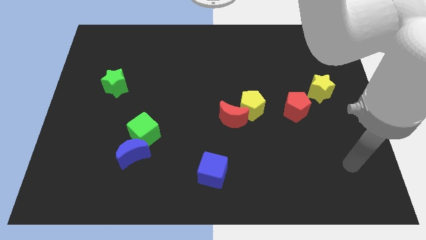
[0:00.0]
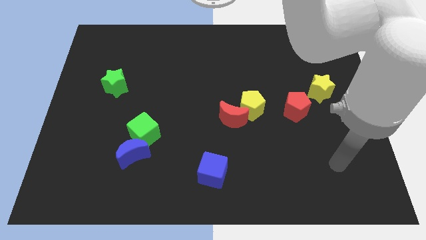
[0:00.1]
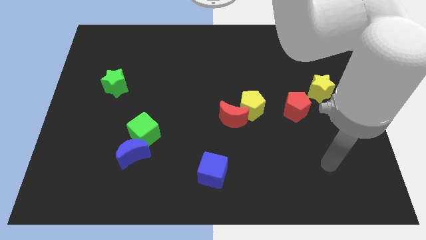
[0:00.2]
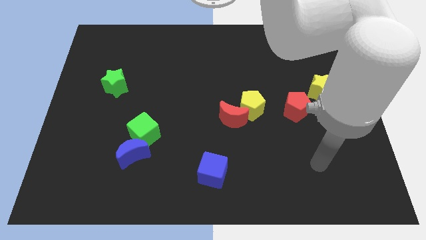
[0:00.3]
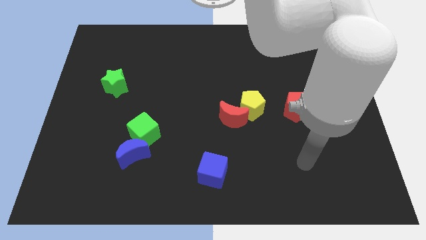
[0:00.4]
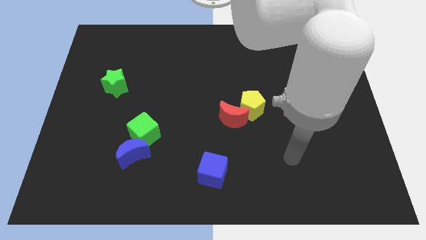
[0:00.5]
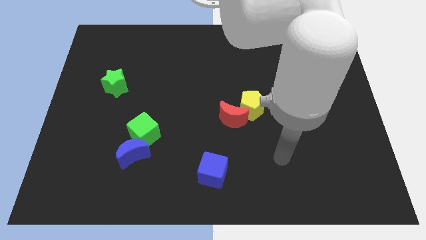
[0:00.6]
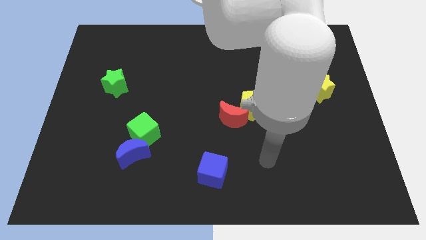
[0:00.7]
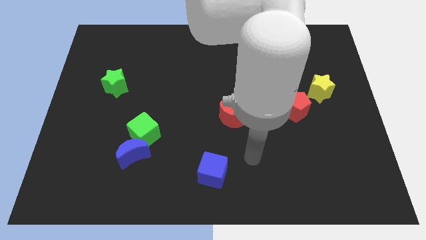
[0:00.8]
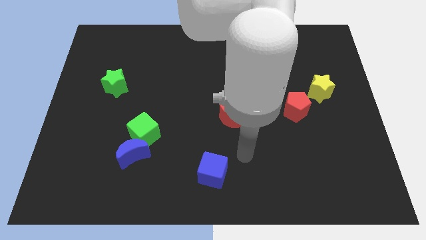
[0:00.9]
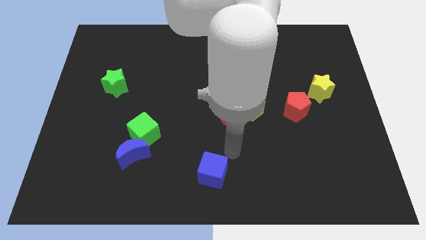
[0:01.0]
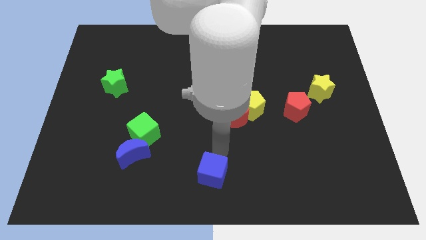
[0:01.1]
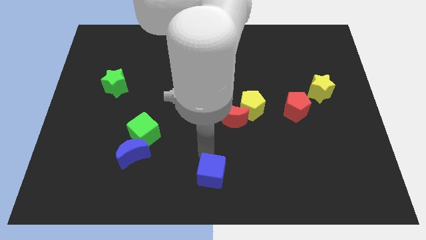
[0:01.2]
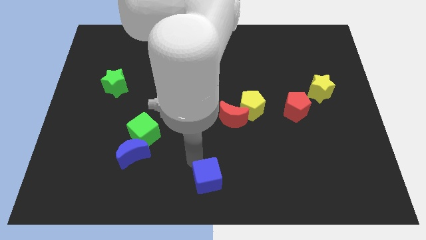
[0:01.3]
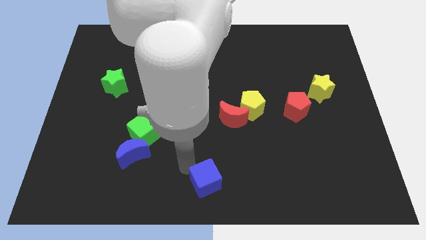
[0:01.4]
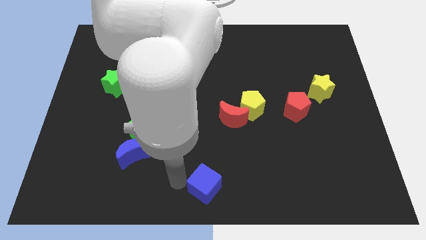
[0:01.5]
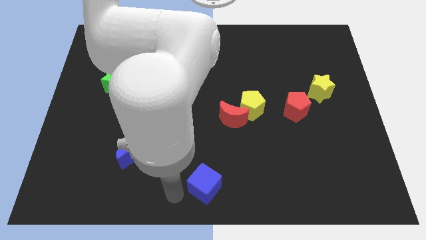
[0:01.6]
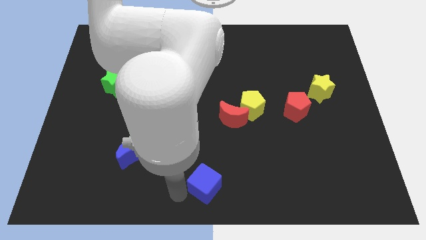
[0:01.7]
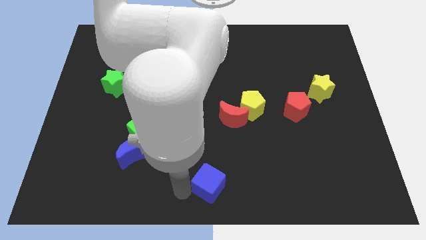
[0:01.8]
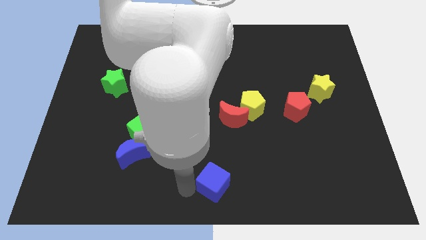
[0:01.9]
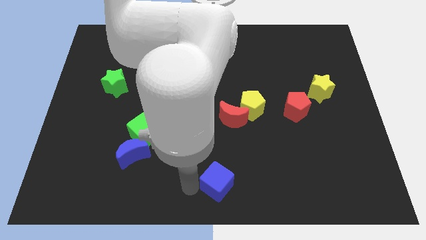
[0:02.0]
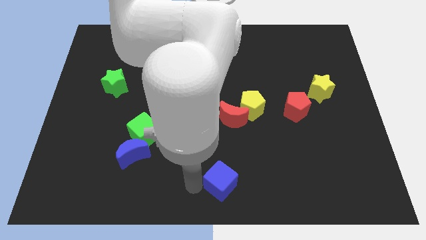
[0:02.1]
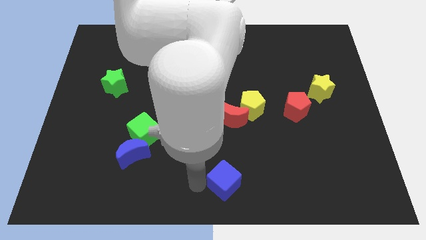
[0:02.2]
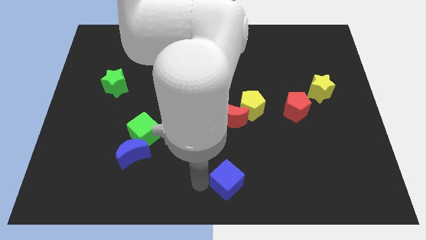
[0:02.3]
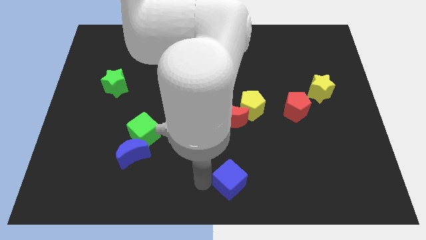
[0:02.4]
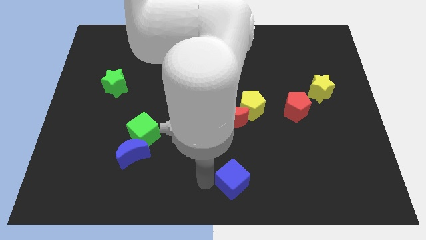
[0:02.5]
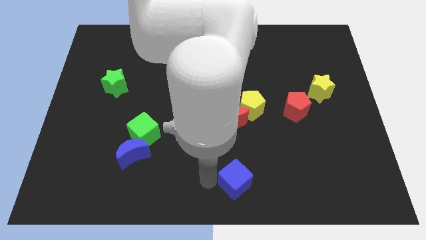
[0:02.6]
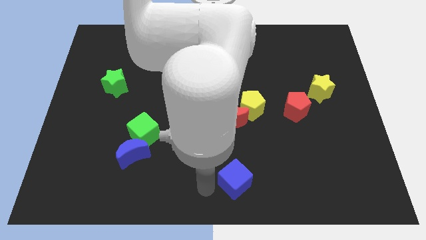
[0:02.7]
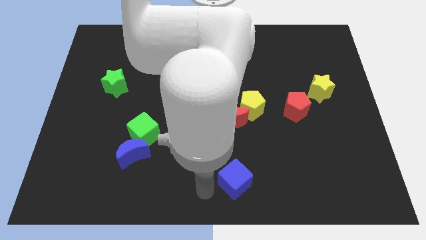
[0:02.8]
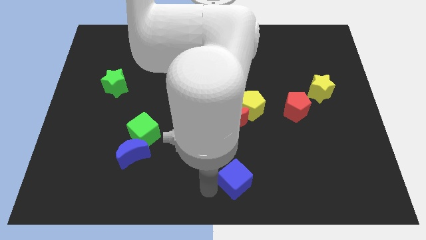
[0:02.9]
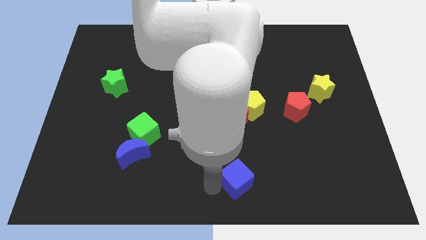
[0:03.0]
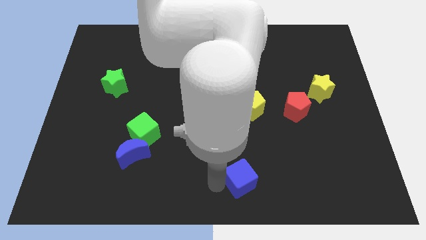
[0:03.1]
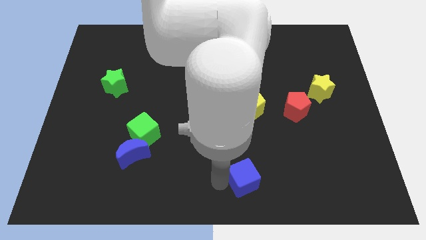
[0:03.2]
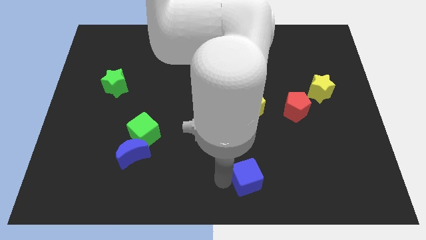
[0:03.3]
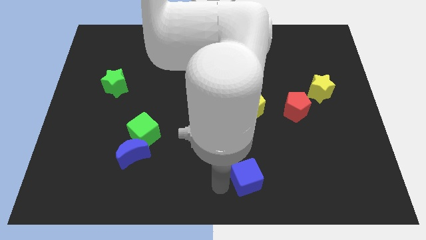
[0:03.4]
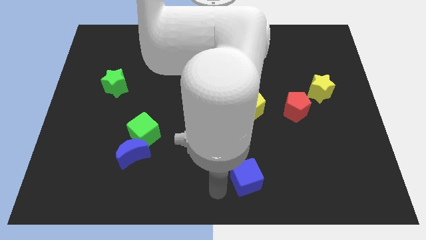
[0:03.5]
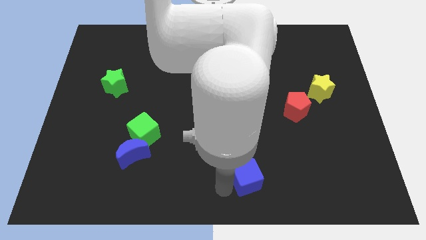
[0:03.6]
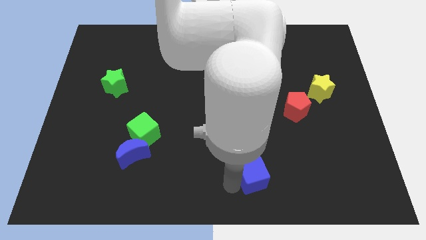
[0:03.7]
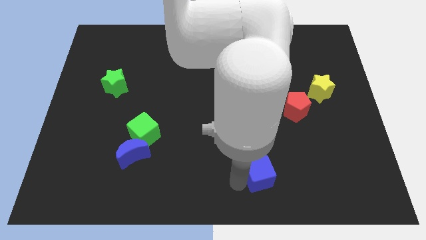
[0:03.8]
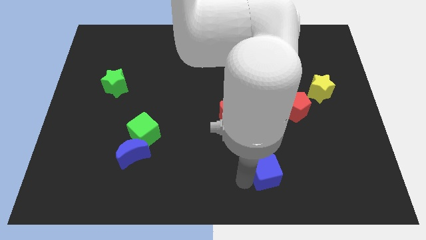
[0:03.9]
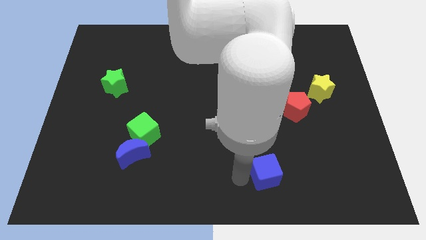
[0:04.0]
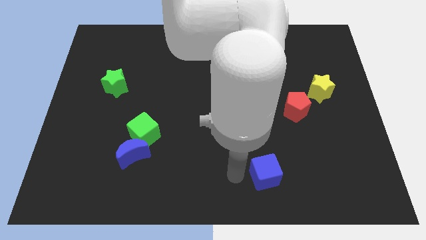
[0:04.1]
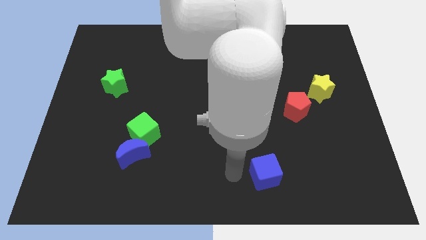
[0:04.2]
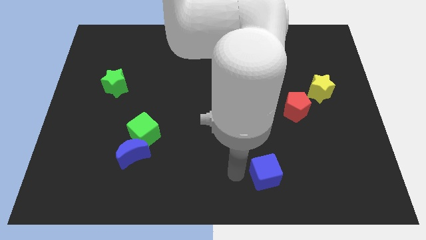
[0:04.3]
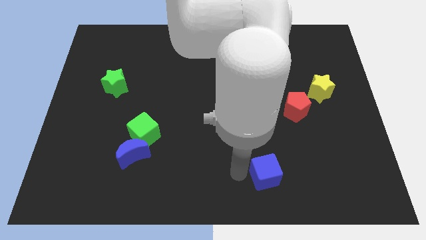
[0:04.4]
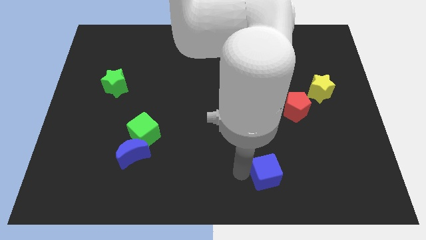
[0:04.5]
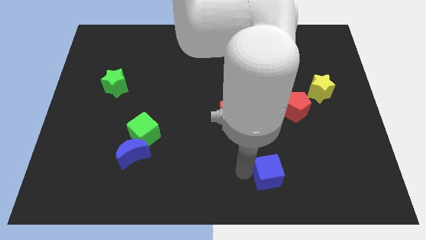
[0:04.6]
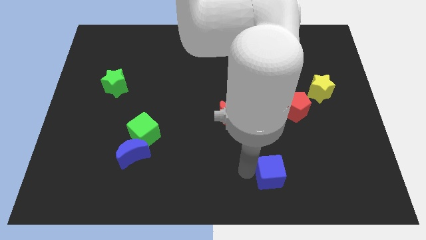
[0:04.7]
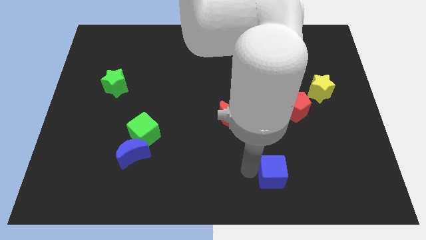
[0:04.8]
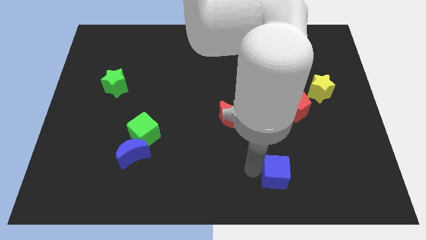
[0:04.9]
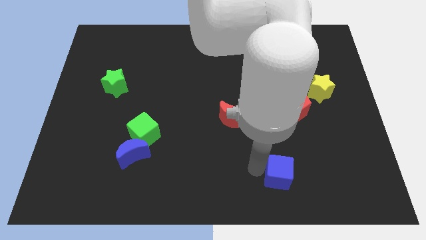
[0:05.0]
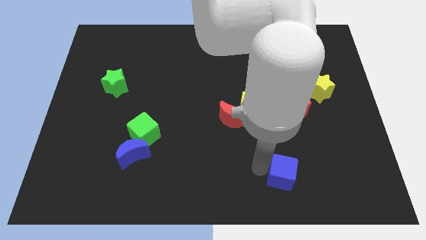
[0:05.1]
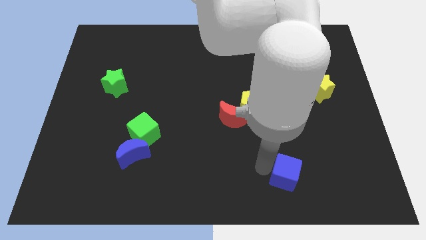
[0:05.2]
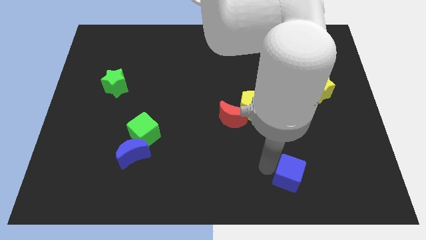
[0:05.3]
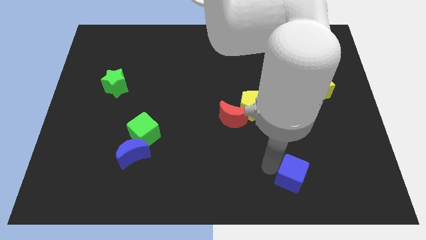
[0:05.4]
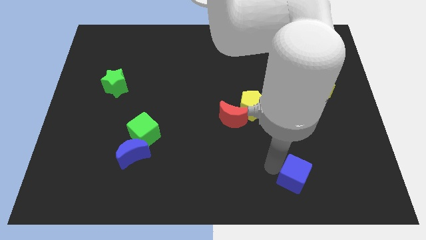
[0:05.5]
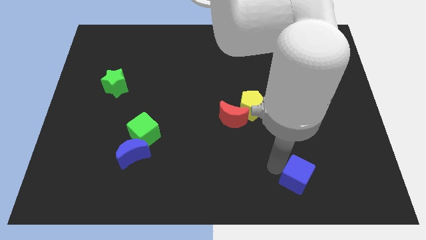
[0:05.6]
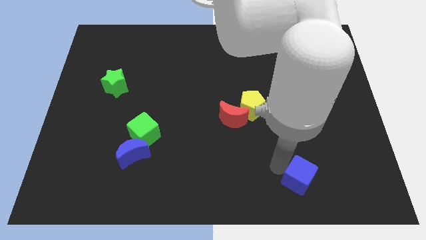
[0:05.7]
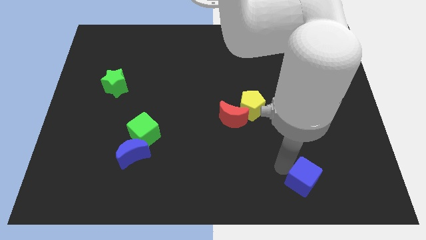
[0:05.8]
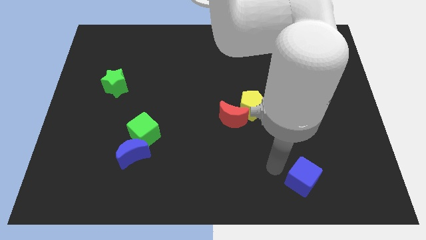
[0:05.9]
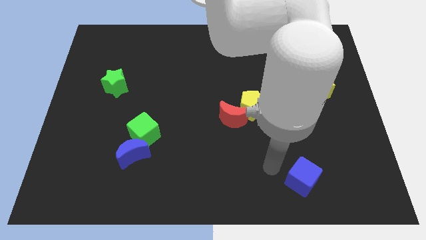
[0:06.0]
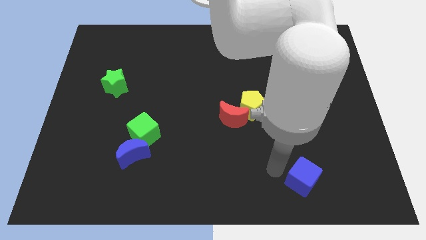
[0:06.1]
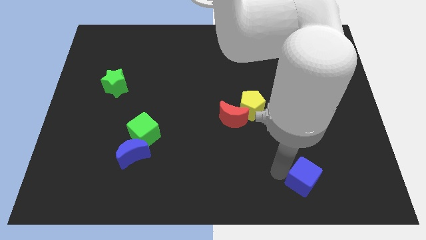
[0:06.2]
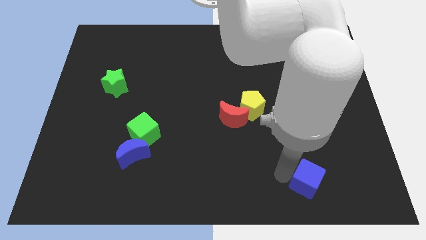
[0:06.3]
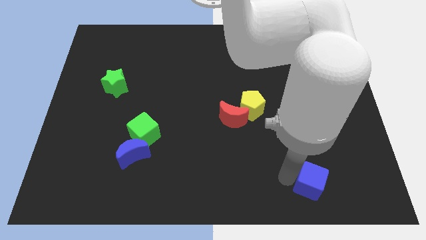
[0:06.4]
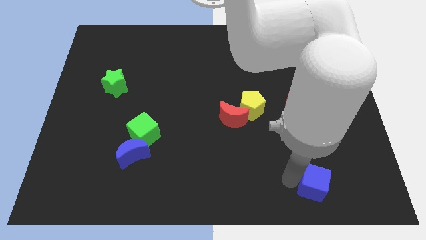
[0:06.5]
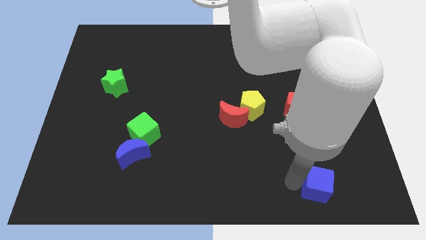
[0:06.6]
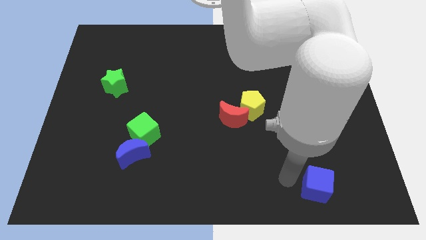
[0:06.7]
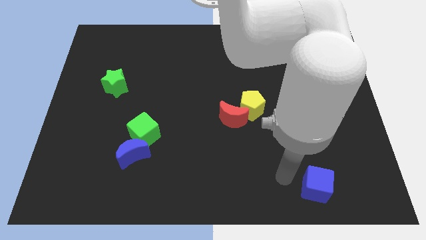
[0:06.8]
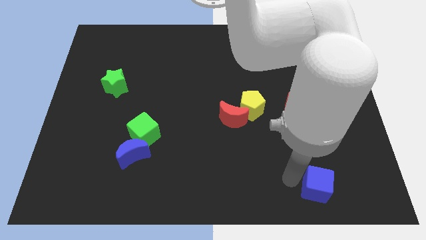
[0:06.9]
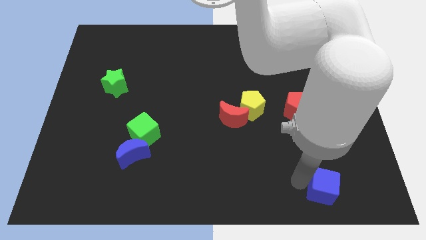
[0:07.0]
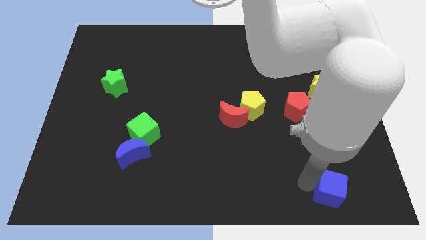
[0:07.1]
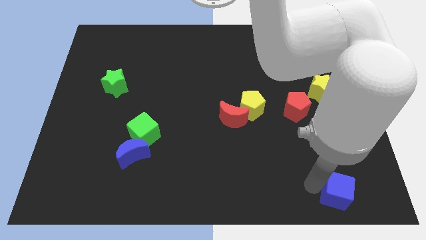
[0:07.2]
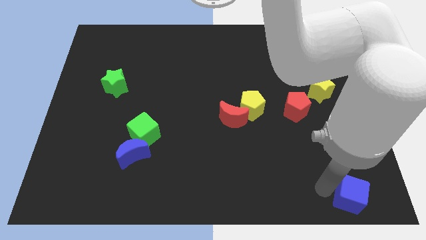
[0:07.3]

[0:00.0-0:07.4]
put the blue cube to the bottom right
